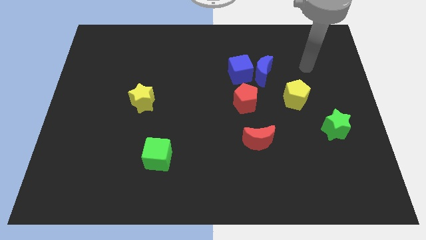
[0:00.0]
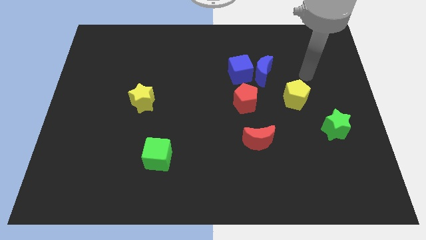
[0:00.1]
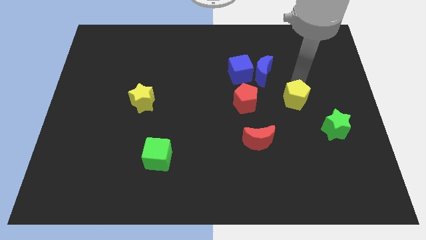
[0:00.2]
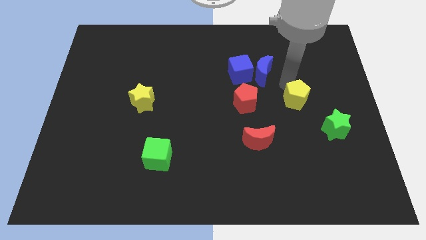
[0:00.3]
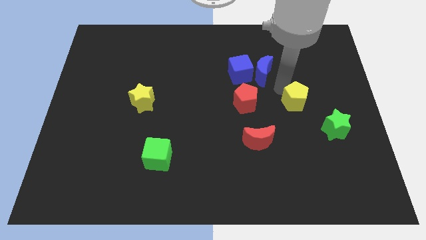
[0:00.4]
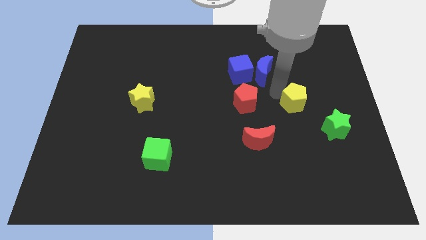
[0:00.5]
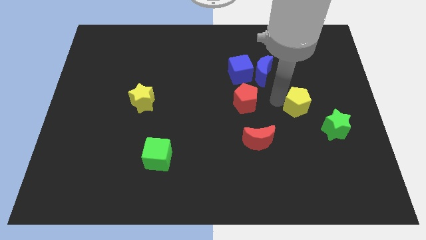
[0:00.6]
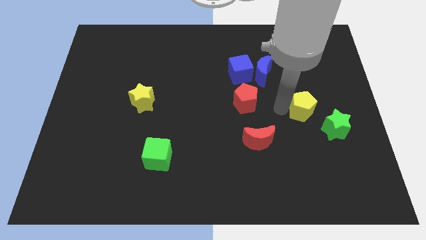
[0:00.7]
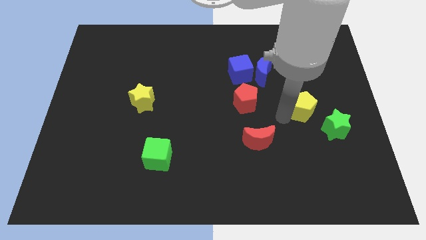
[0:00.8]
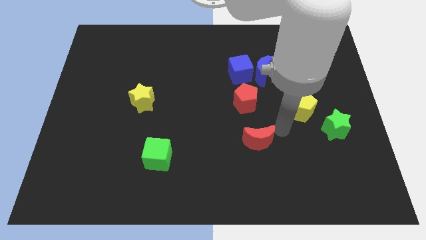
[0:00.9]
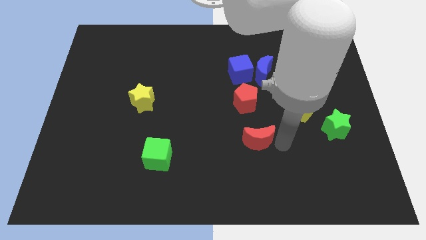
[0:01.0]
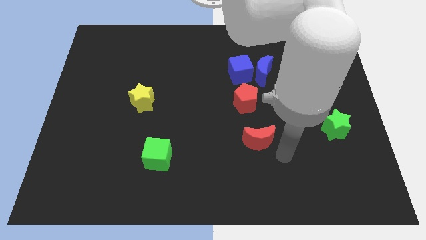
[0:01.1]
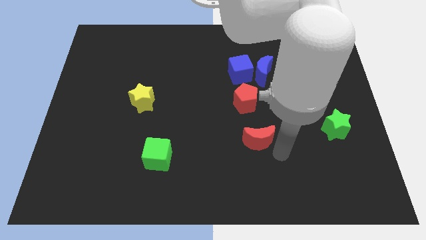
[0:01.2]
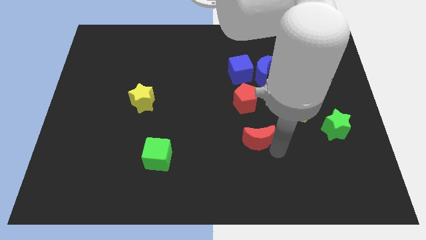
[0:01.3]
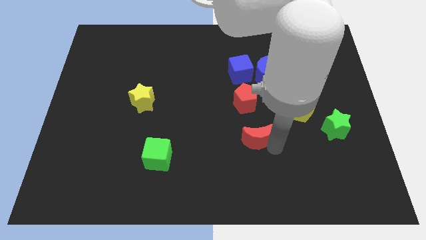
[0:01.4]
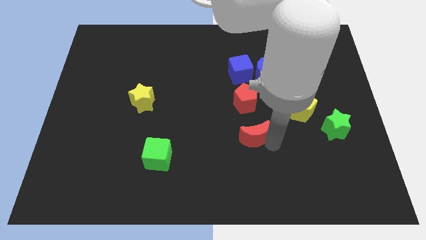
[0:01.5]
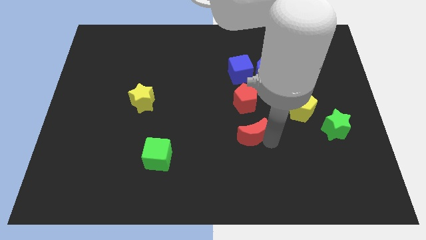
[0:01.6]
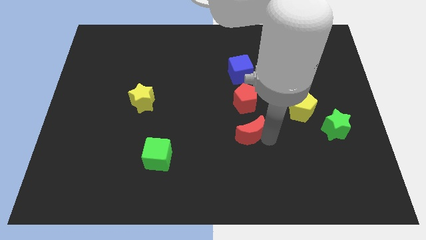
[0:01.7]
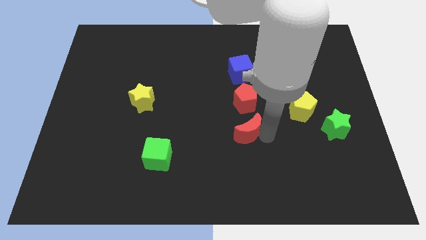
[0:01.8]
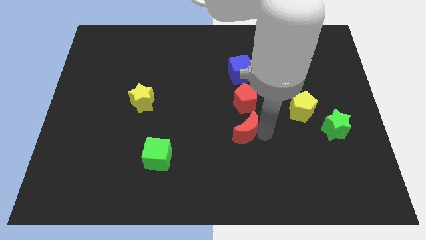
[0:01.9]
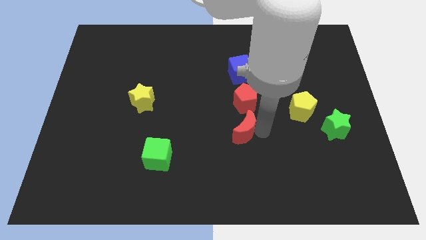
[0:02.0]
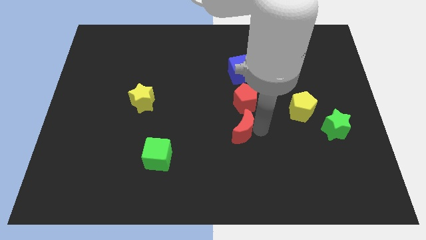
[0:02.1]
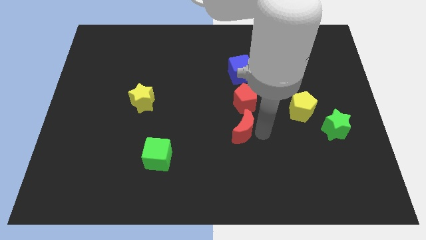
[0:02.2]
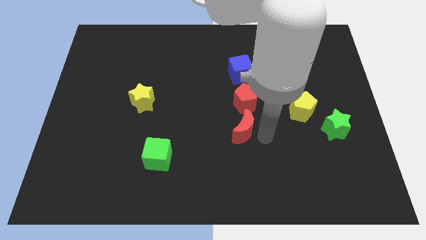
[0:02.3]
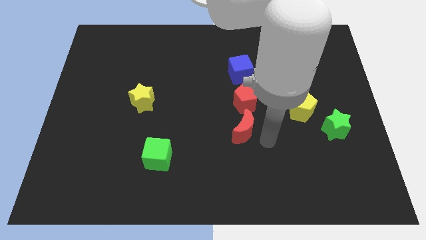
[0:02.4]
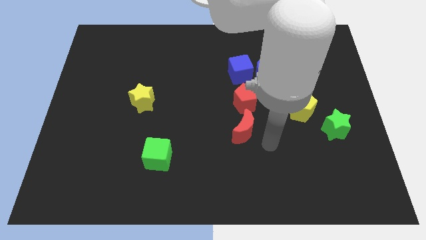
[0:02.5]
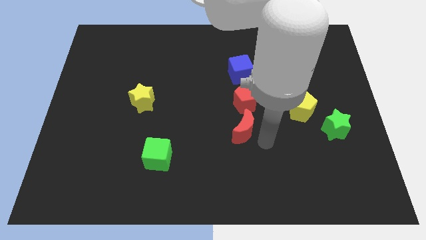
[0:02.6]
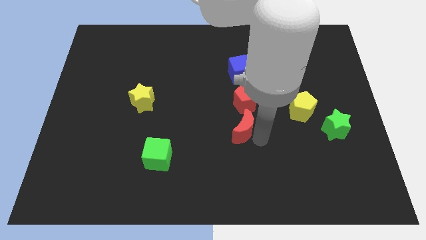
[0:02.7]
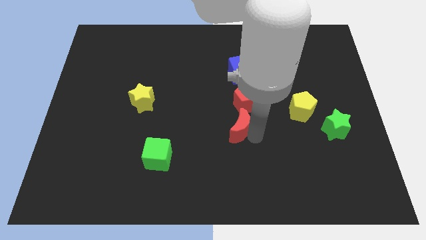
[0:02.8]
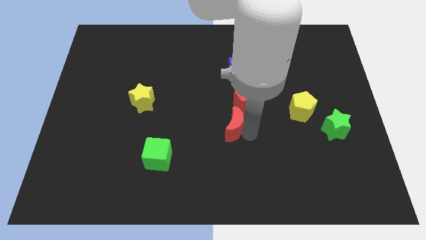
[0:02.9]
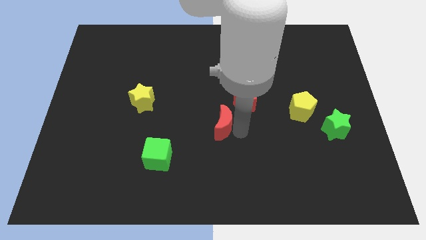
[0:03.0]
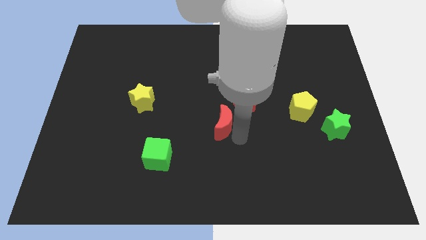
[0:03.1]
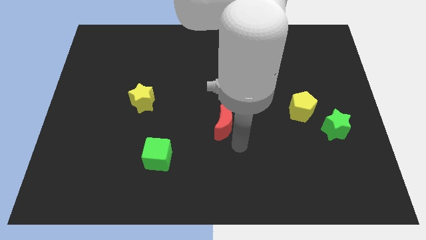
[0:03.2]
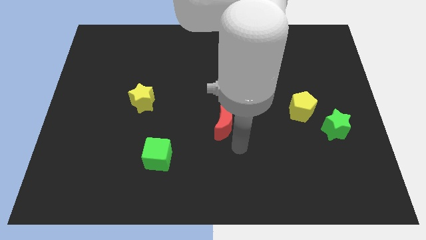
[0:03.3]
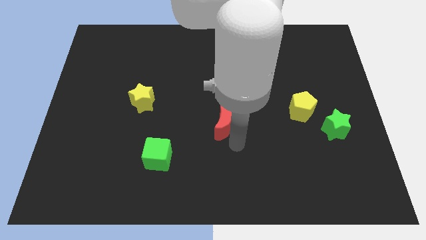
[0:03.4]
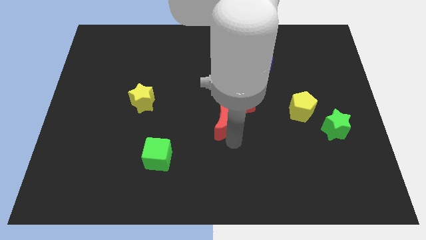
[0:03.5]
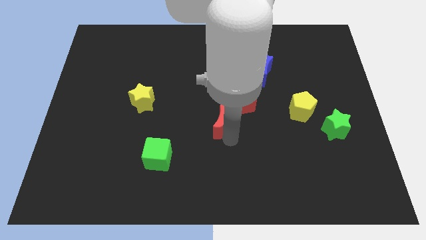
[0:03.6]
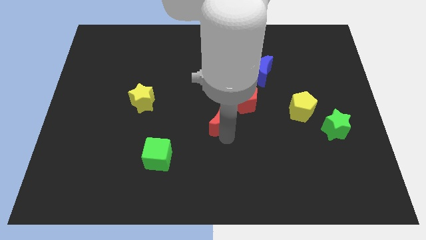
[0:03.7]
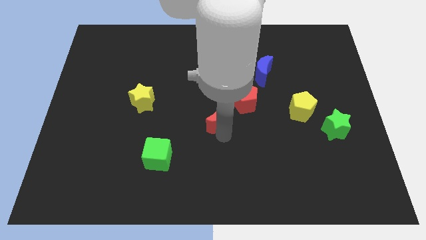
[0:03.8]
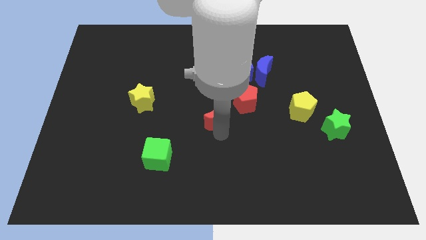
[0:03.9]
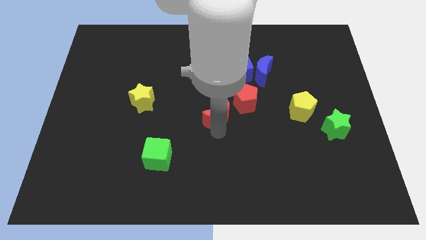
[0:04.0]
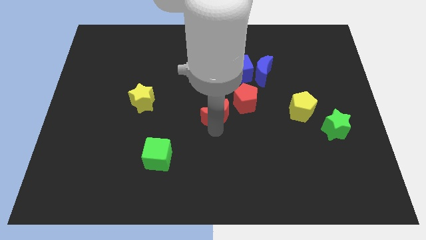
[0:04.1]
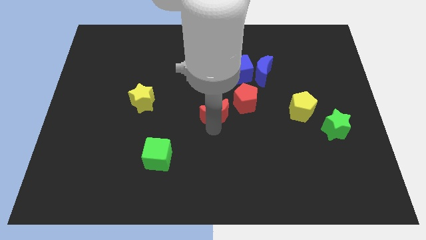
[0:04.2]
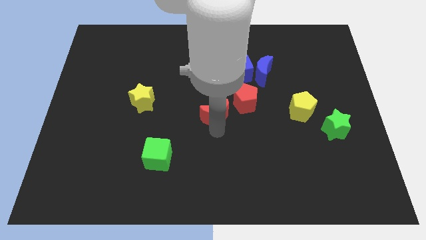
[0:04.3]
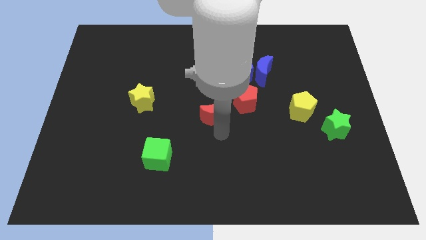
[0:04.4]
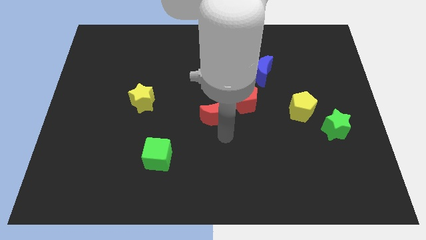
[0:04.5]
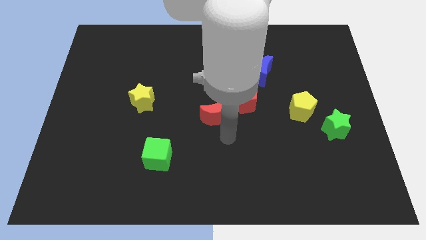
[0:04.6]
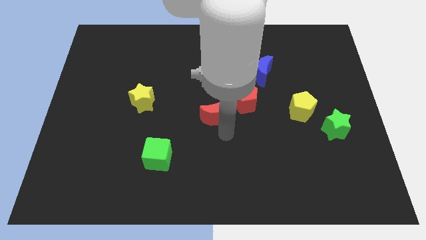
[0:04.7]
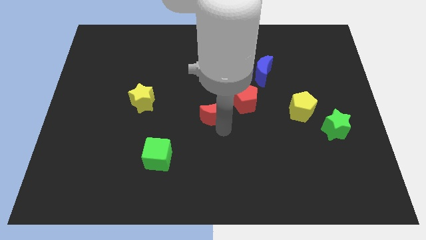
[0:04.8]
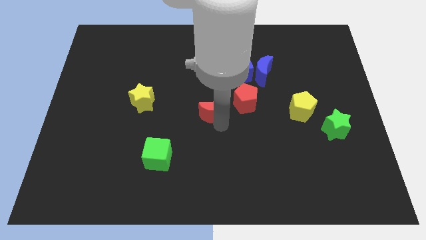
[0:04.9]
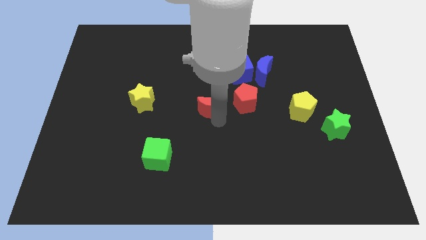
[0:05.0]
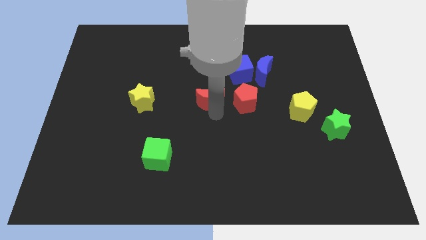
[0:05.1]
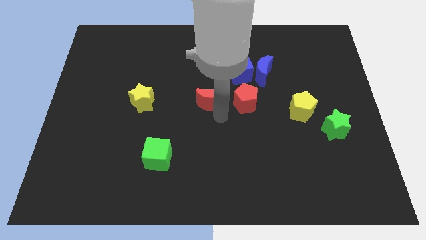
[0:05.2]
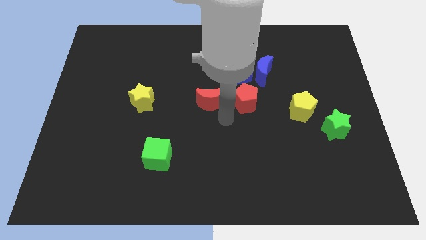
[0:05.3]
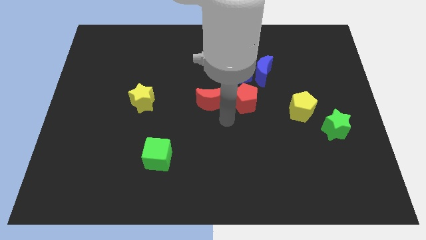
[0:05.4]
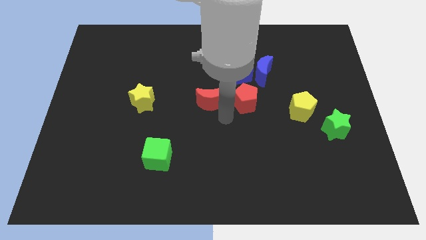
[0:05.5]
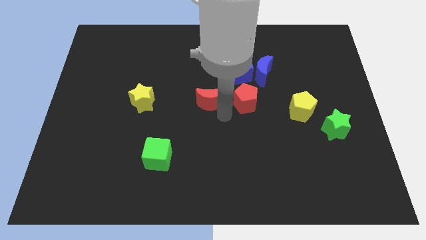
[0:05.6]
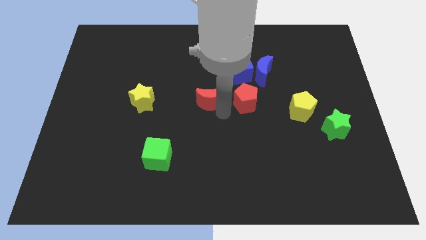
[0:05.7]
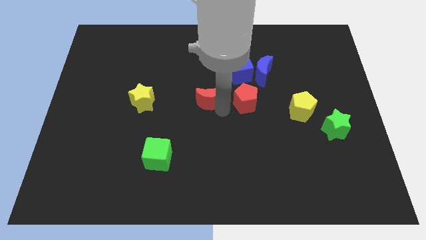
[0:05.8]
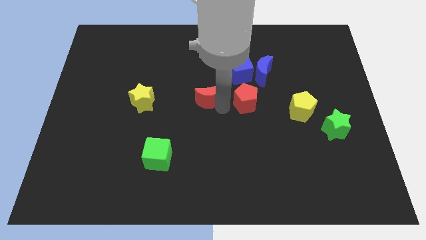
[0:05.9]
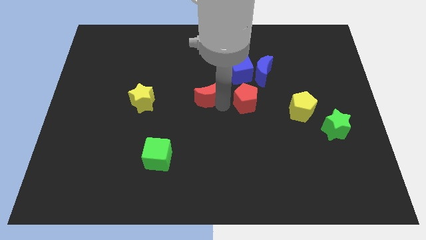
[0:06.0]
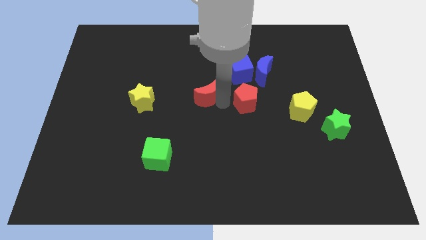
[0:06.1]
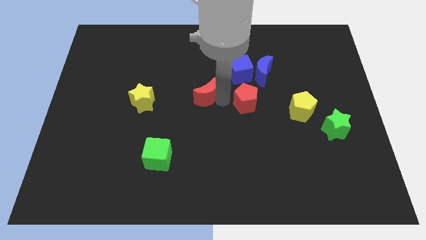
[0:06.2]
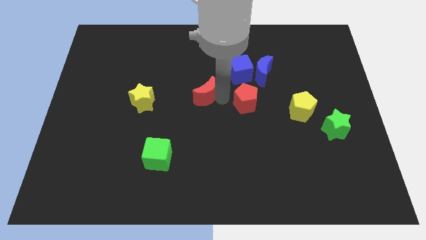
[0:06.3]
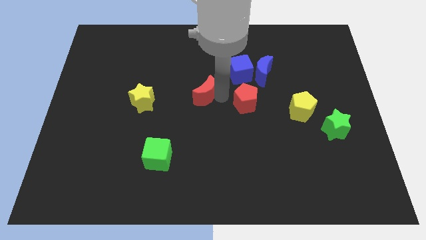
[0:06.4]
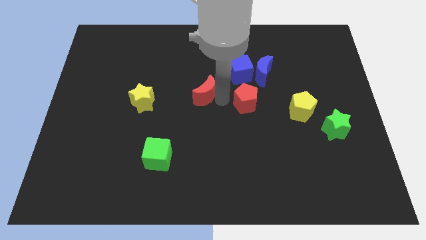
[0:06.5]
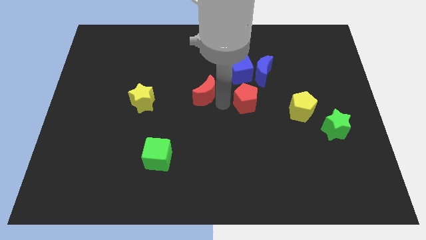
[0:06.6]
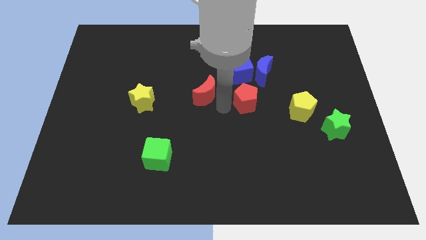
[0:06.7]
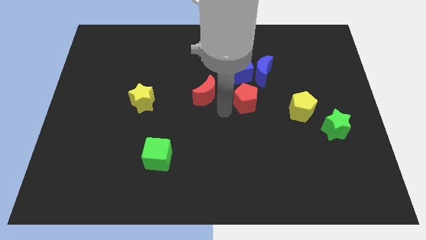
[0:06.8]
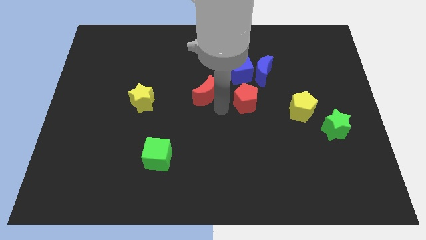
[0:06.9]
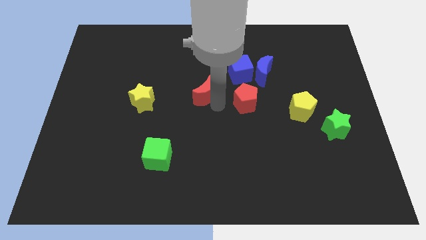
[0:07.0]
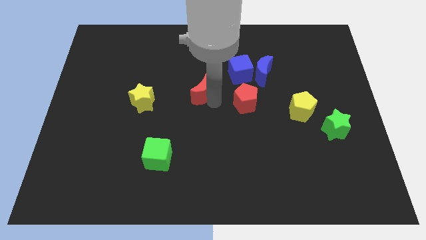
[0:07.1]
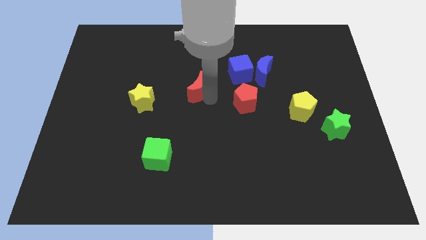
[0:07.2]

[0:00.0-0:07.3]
push the red moon upwards and to the left

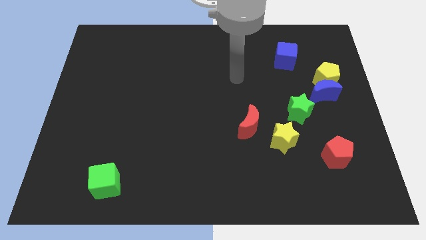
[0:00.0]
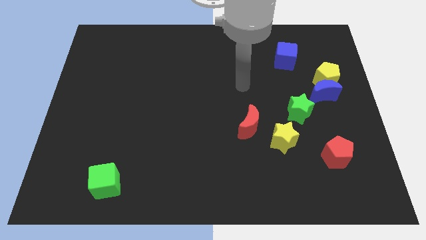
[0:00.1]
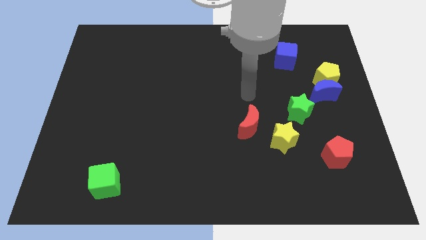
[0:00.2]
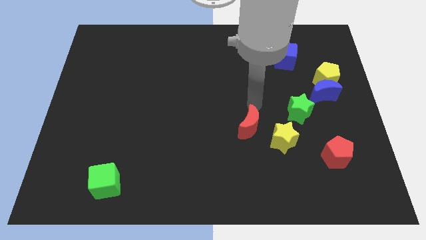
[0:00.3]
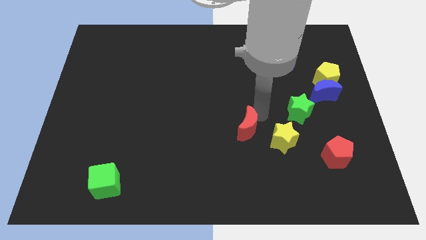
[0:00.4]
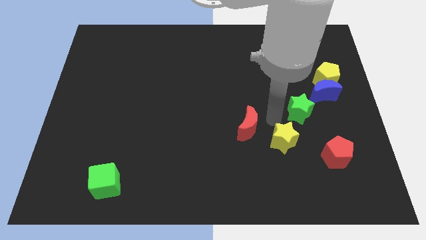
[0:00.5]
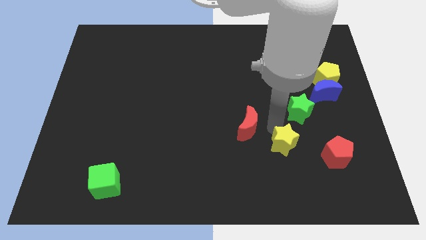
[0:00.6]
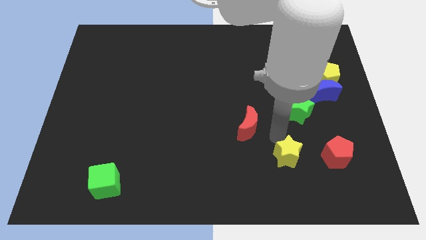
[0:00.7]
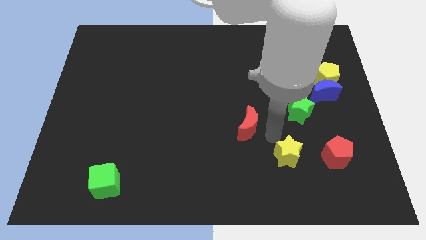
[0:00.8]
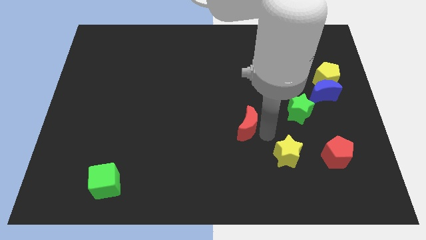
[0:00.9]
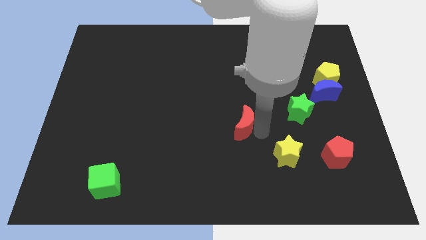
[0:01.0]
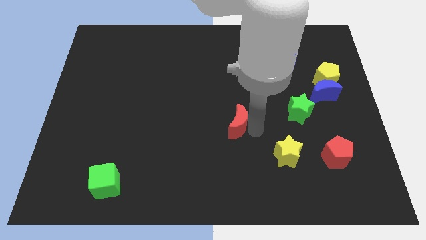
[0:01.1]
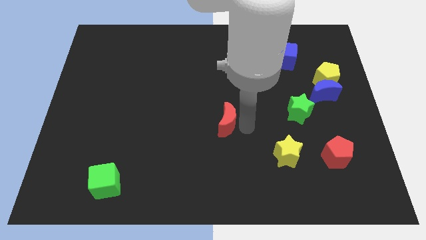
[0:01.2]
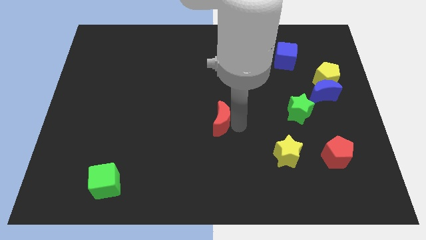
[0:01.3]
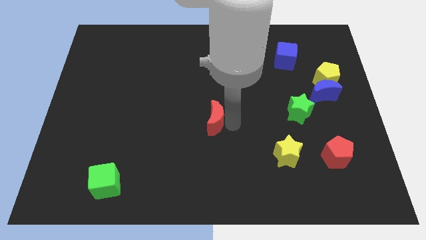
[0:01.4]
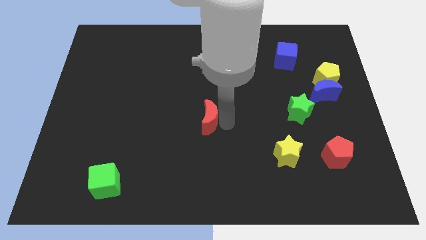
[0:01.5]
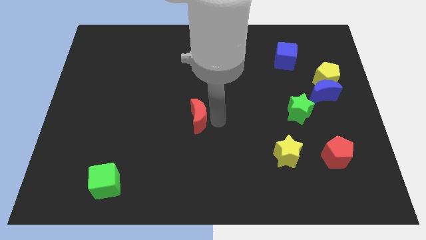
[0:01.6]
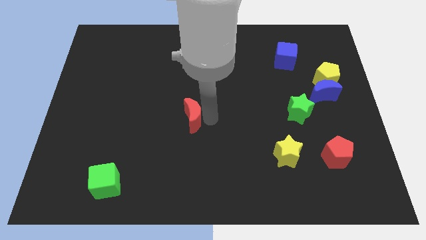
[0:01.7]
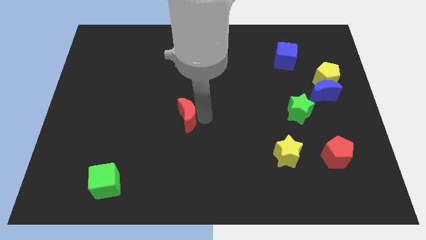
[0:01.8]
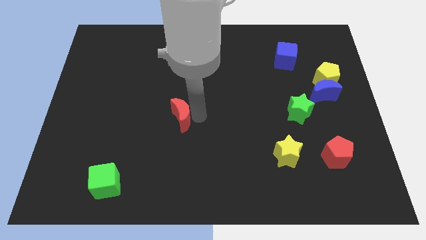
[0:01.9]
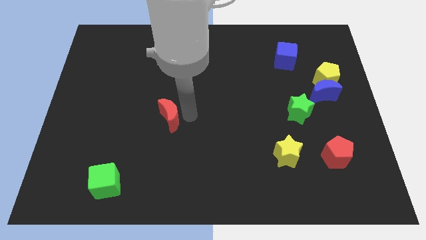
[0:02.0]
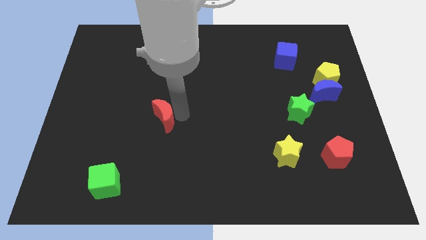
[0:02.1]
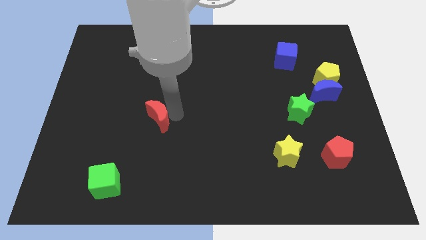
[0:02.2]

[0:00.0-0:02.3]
move the red moon left
